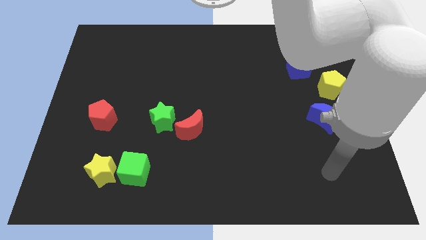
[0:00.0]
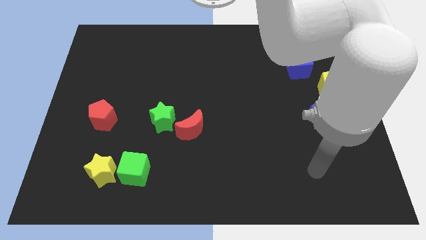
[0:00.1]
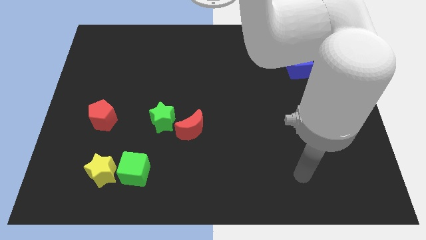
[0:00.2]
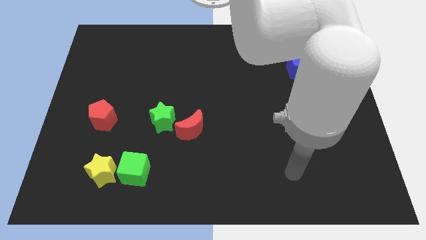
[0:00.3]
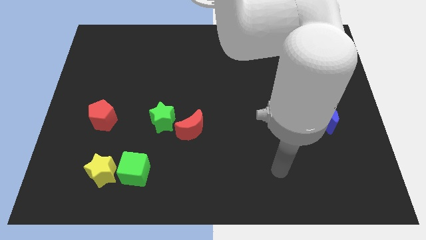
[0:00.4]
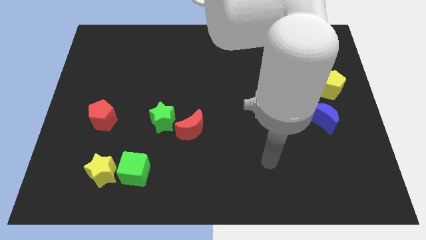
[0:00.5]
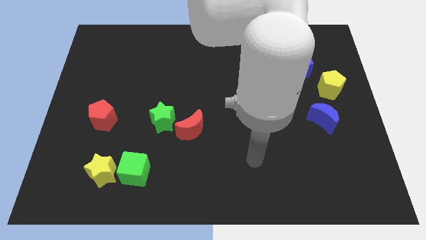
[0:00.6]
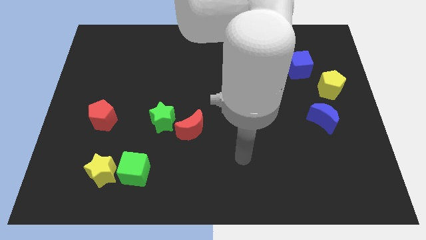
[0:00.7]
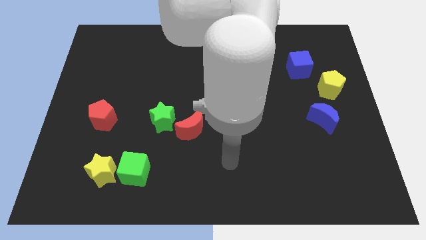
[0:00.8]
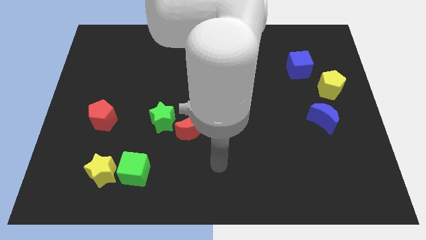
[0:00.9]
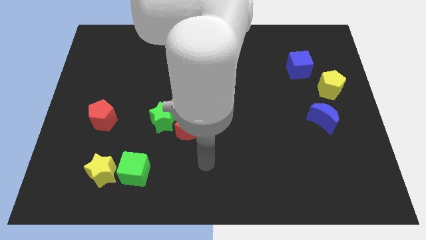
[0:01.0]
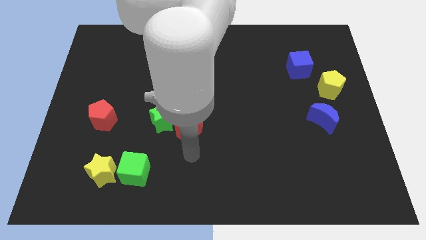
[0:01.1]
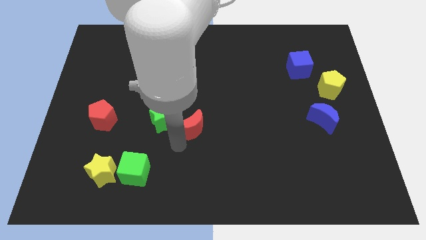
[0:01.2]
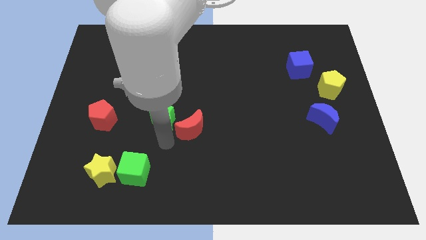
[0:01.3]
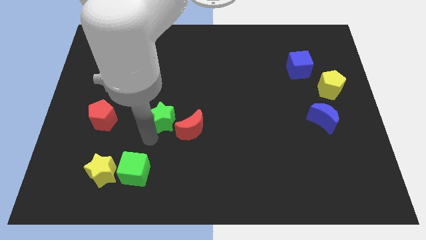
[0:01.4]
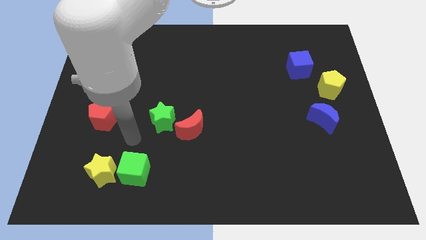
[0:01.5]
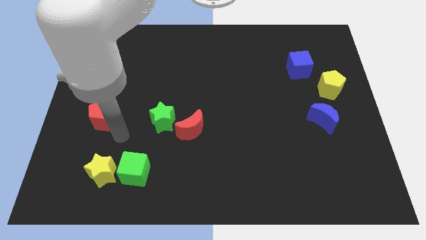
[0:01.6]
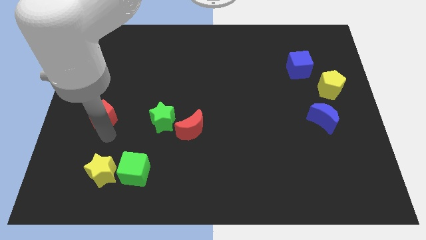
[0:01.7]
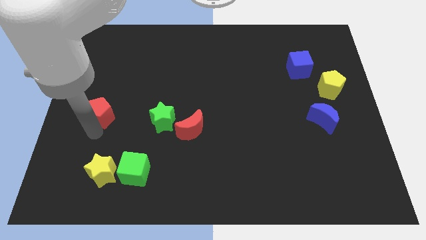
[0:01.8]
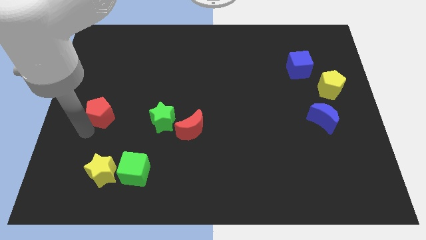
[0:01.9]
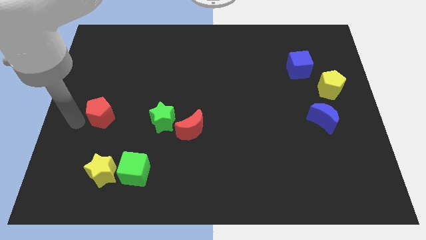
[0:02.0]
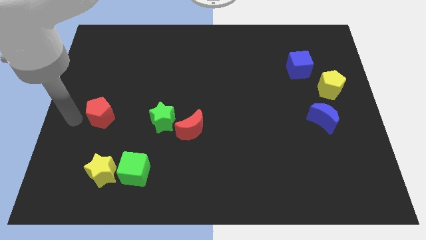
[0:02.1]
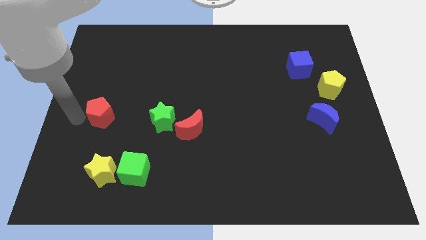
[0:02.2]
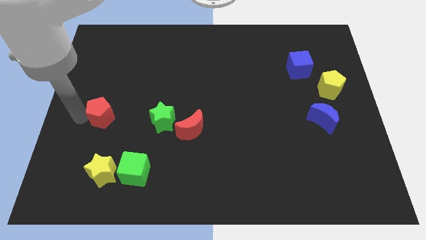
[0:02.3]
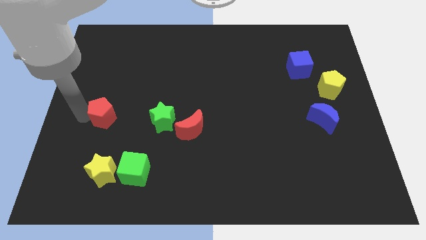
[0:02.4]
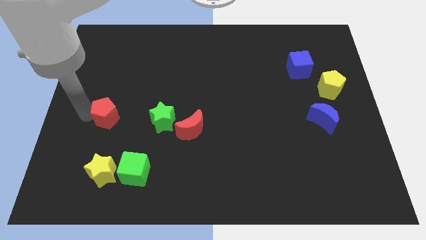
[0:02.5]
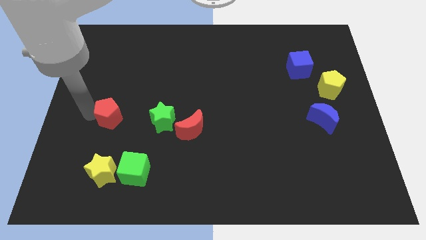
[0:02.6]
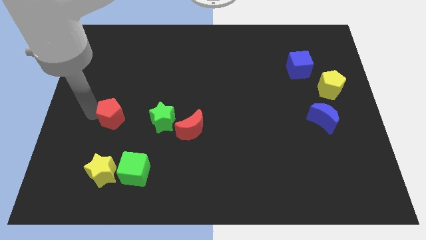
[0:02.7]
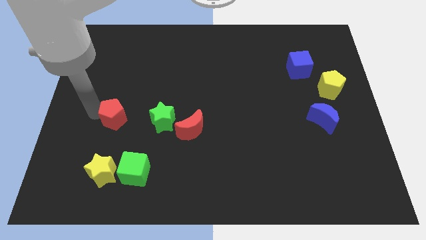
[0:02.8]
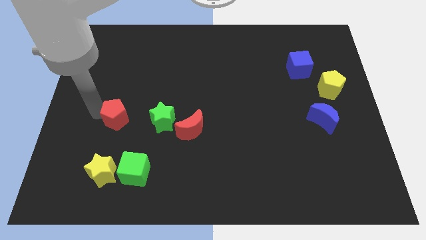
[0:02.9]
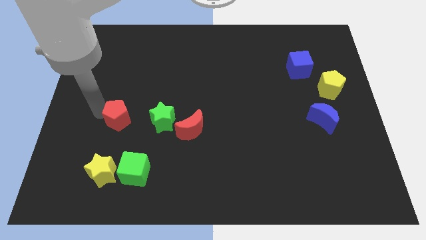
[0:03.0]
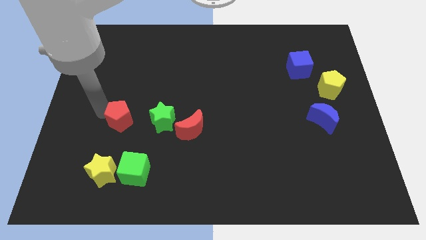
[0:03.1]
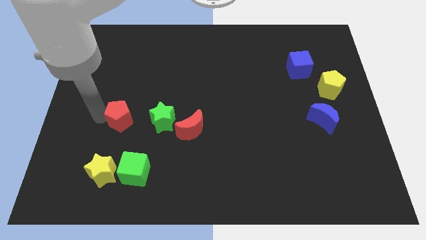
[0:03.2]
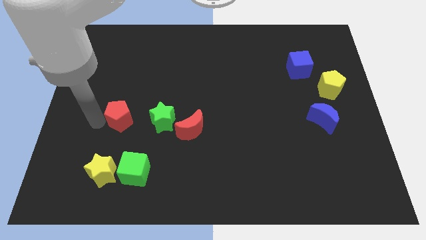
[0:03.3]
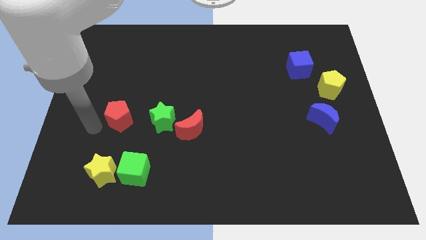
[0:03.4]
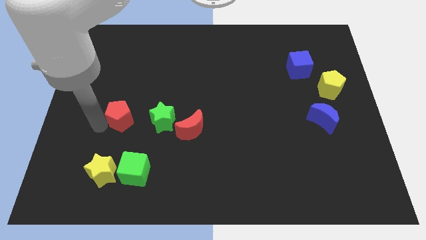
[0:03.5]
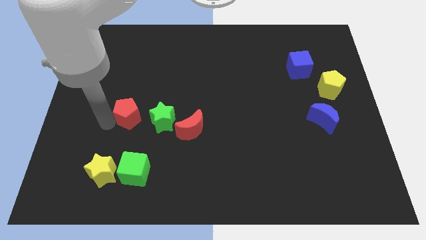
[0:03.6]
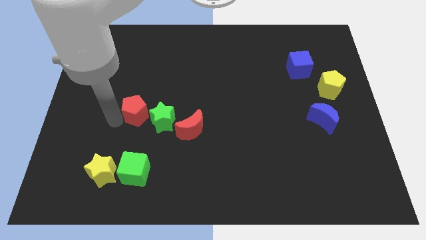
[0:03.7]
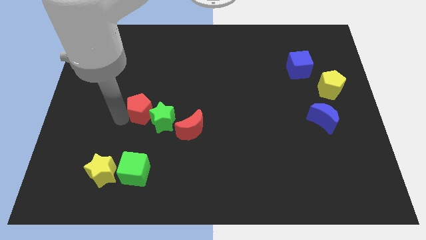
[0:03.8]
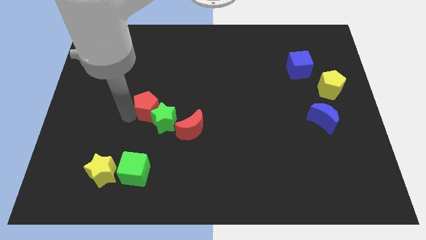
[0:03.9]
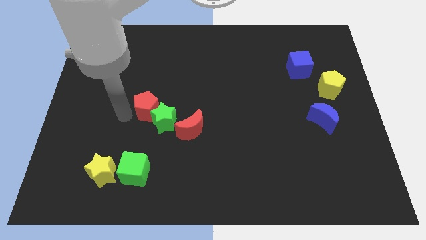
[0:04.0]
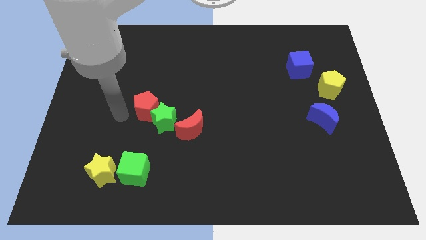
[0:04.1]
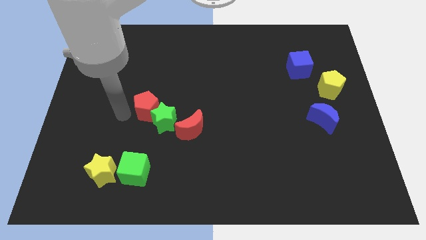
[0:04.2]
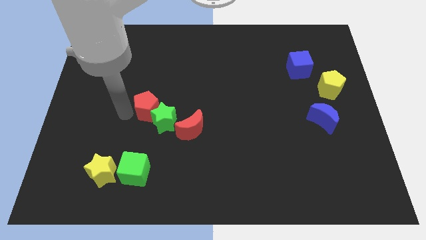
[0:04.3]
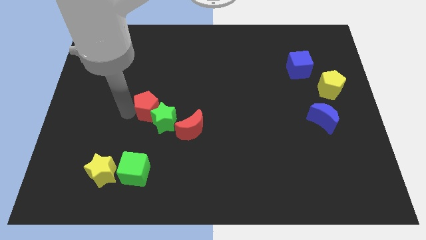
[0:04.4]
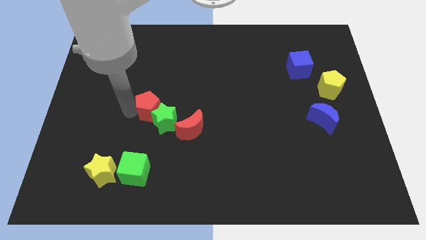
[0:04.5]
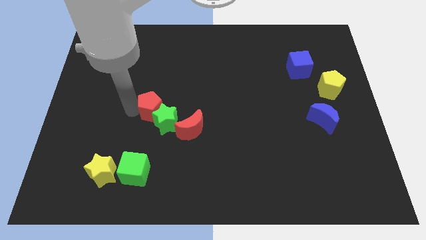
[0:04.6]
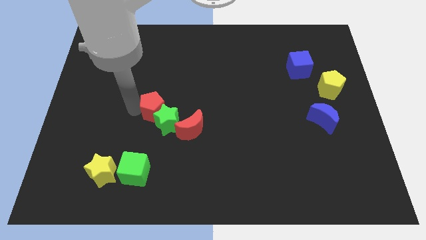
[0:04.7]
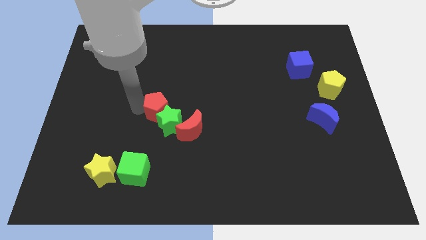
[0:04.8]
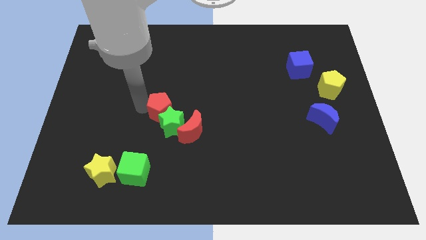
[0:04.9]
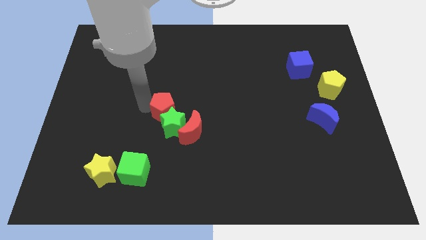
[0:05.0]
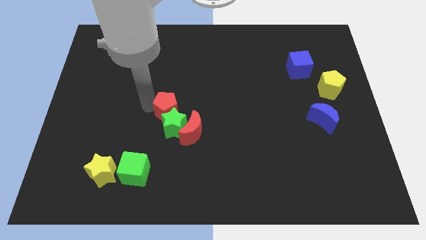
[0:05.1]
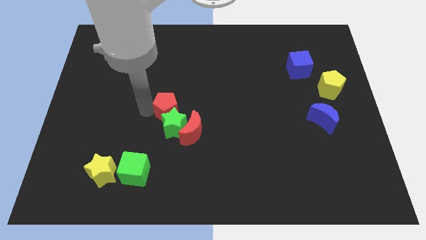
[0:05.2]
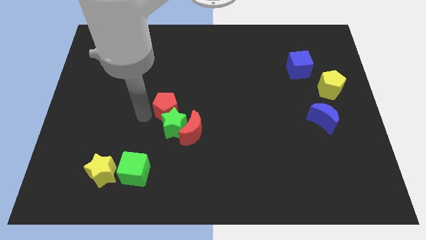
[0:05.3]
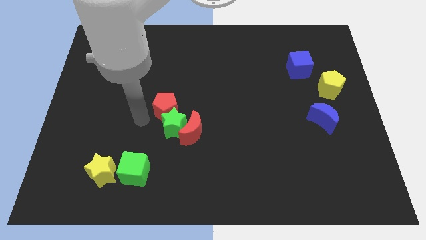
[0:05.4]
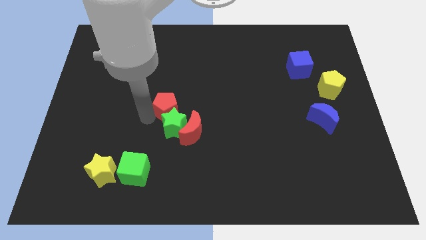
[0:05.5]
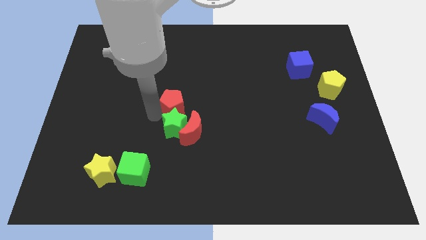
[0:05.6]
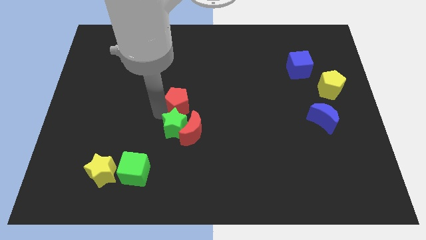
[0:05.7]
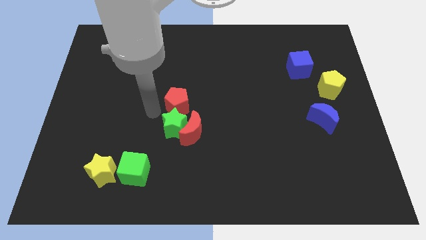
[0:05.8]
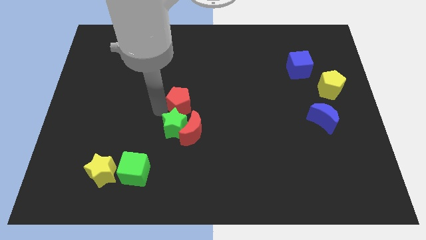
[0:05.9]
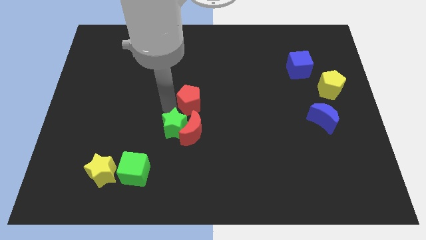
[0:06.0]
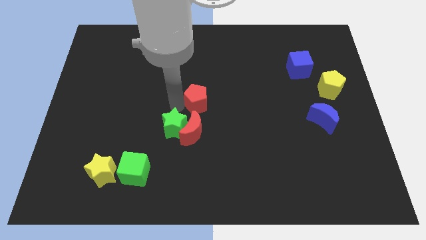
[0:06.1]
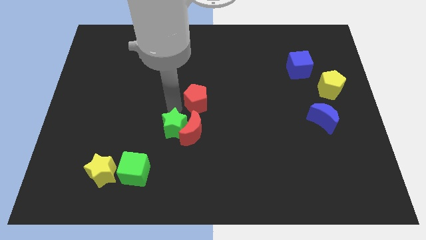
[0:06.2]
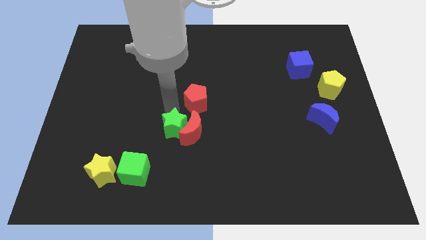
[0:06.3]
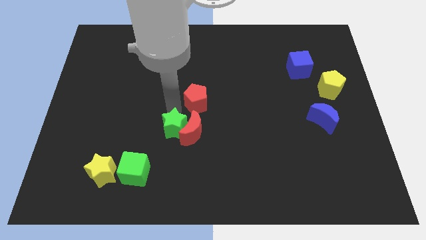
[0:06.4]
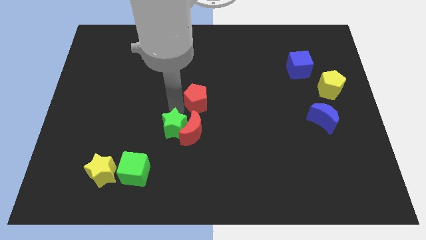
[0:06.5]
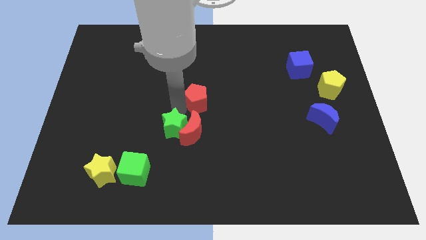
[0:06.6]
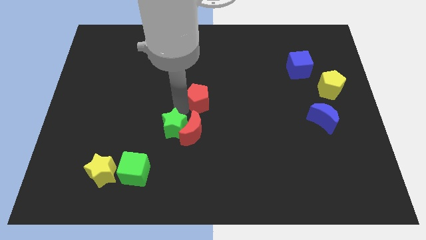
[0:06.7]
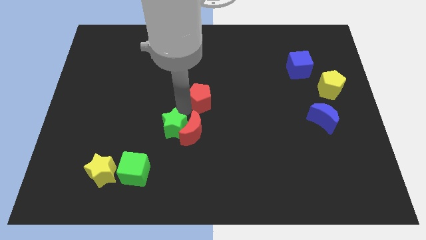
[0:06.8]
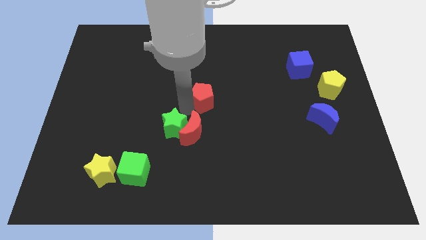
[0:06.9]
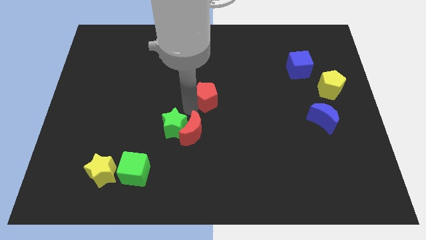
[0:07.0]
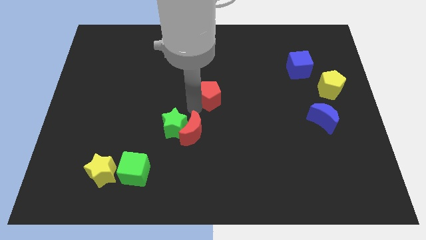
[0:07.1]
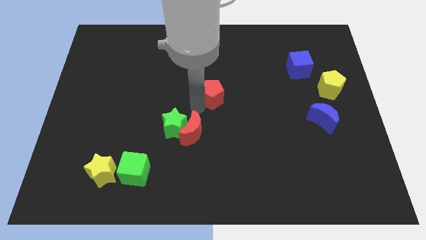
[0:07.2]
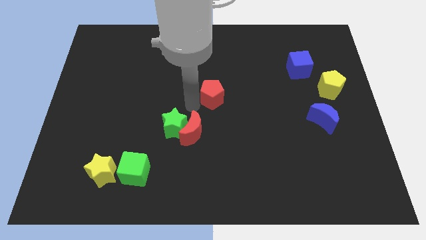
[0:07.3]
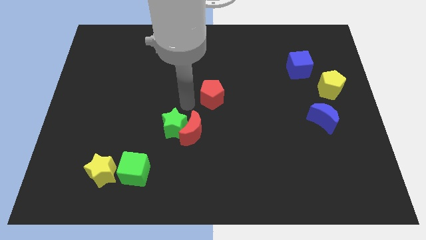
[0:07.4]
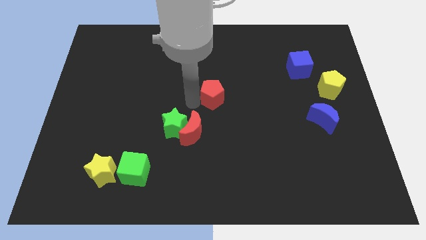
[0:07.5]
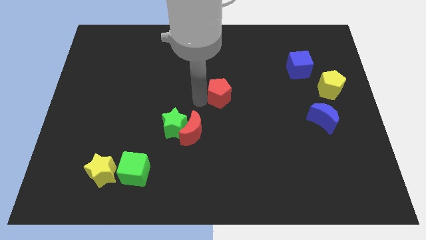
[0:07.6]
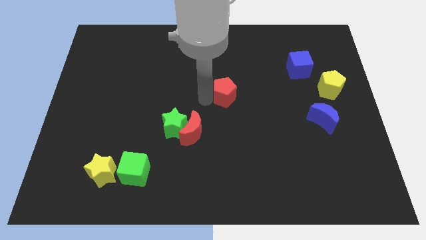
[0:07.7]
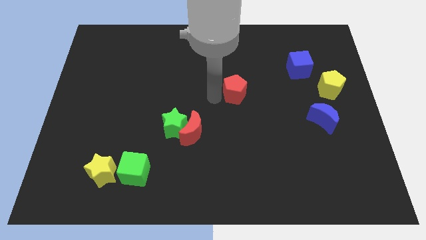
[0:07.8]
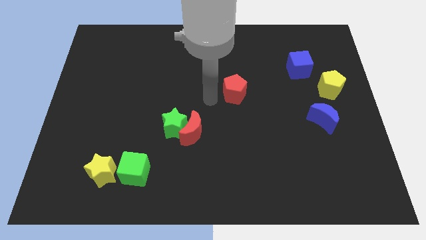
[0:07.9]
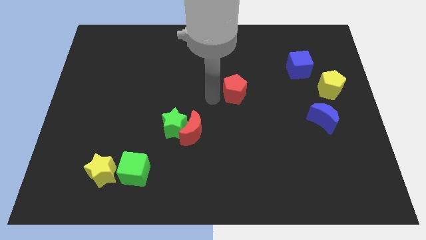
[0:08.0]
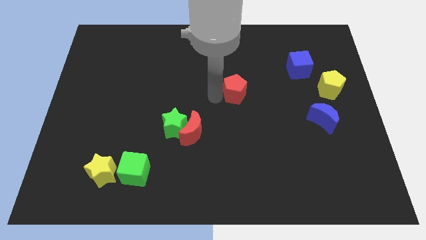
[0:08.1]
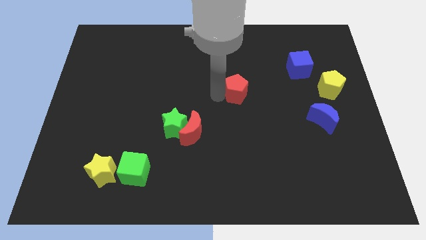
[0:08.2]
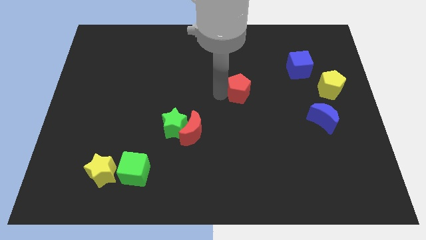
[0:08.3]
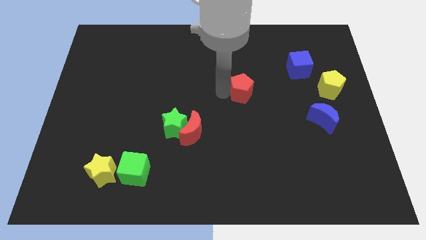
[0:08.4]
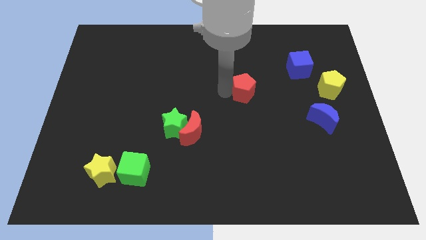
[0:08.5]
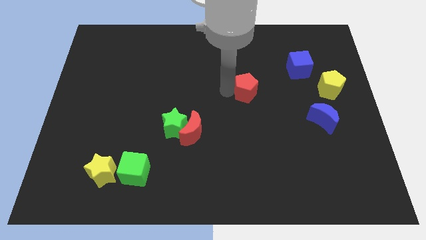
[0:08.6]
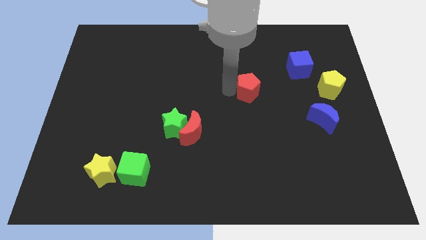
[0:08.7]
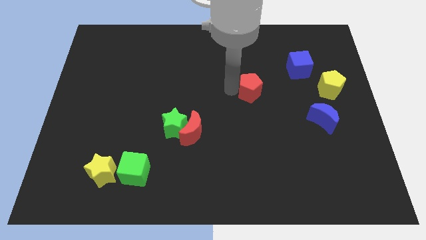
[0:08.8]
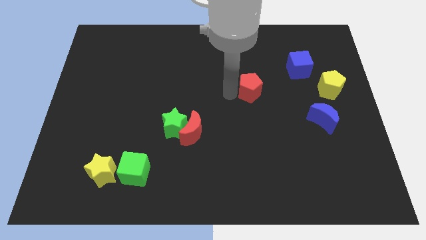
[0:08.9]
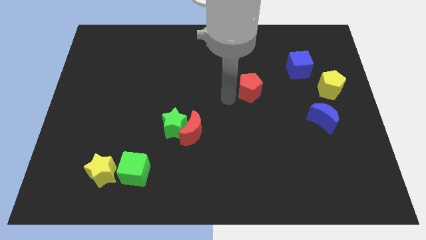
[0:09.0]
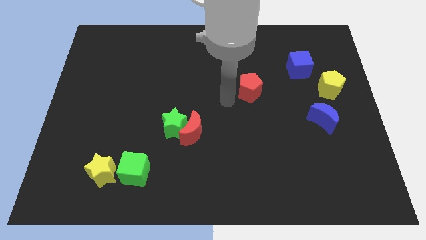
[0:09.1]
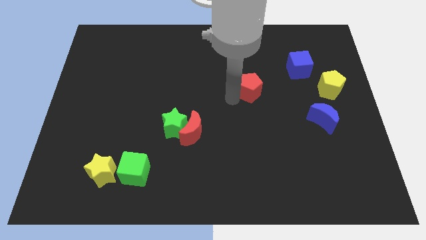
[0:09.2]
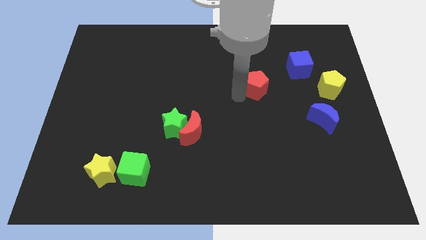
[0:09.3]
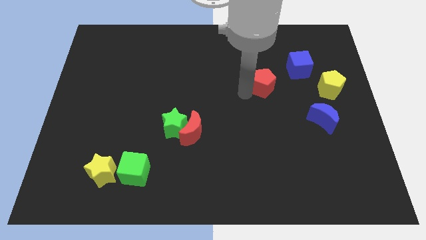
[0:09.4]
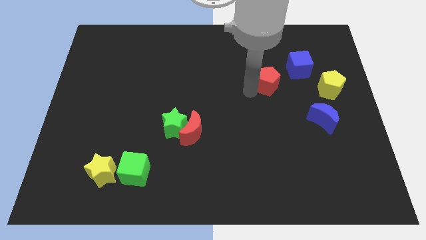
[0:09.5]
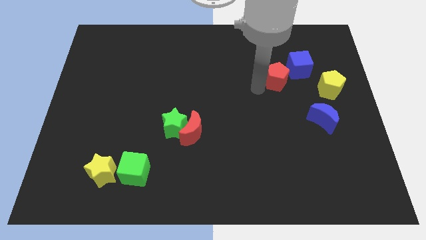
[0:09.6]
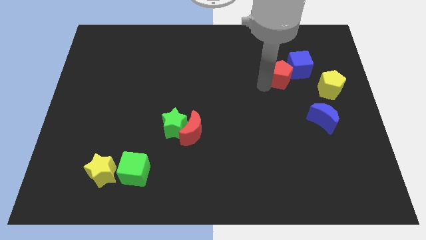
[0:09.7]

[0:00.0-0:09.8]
slide the red pentagon close to the blue cube
